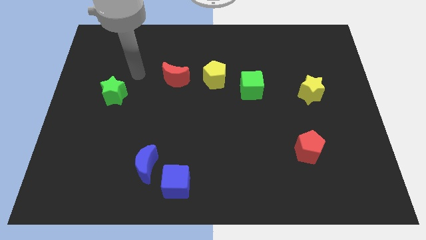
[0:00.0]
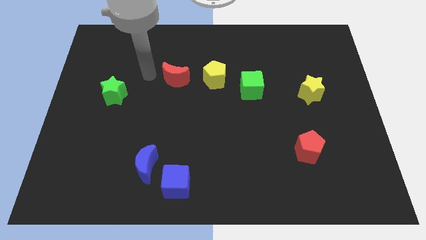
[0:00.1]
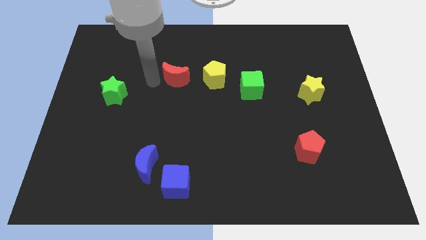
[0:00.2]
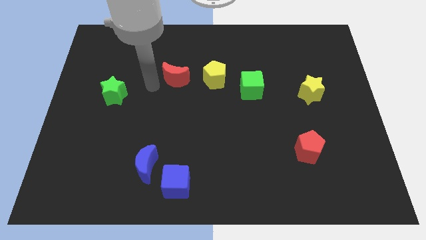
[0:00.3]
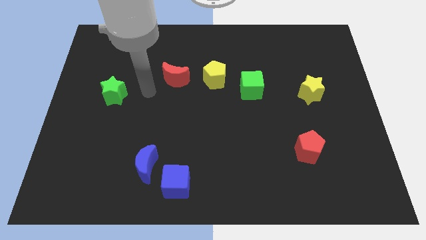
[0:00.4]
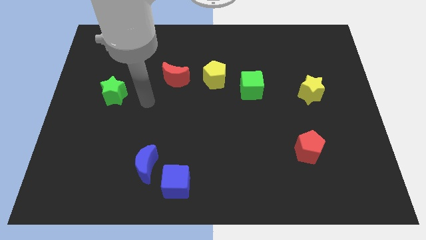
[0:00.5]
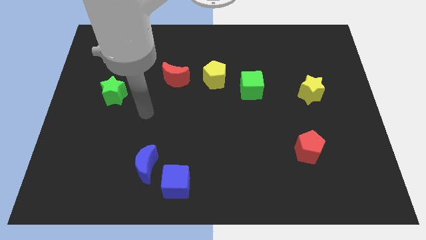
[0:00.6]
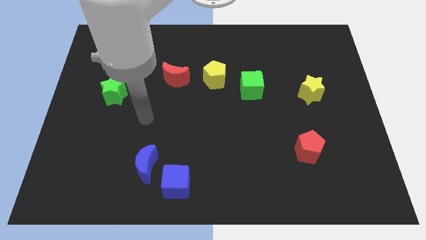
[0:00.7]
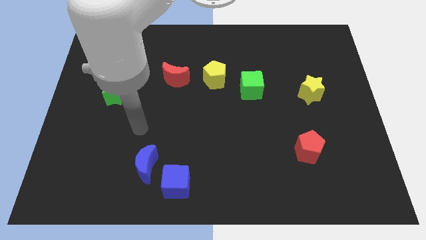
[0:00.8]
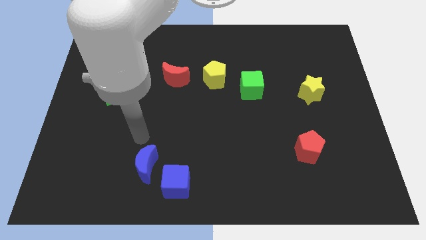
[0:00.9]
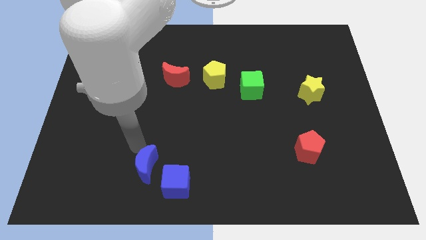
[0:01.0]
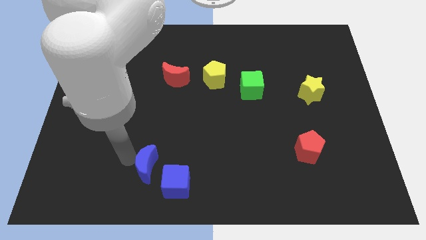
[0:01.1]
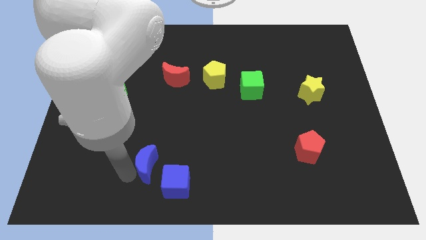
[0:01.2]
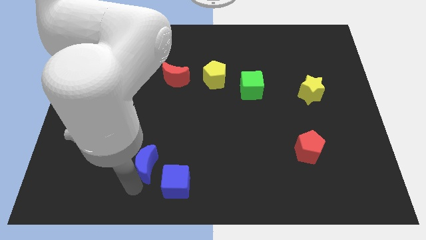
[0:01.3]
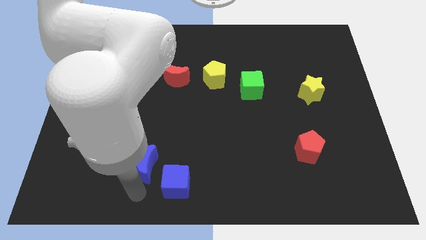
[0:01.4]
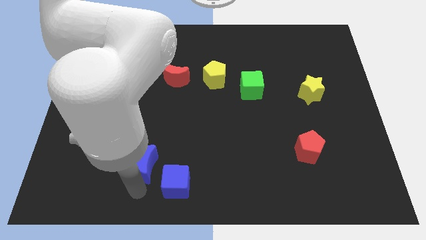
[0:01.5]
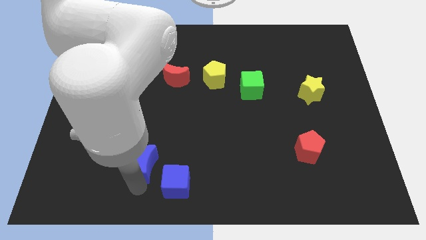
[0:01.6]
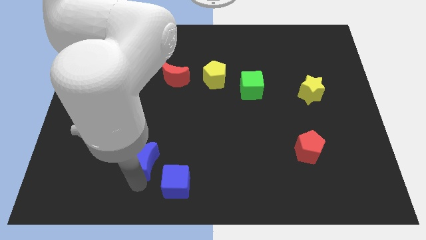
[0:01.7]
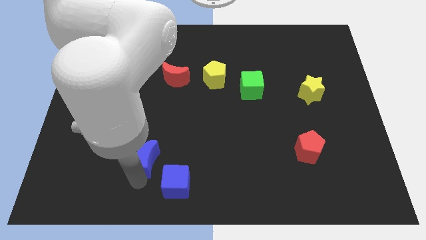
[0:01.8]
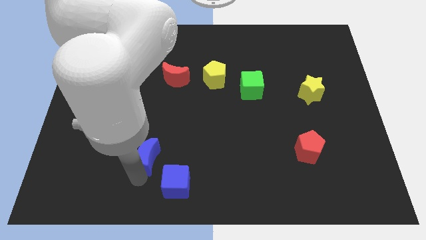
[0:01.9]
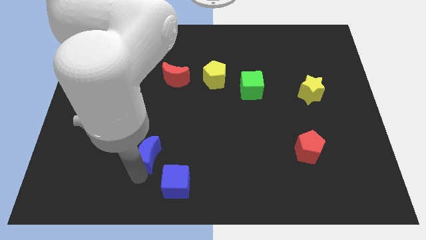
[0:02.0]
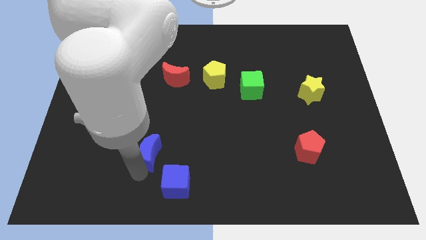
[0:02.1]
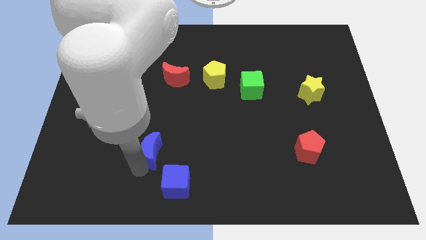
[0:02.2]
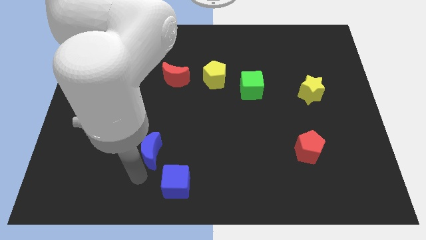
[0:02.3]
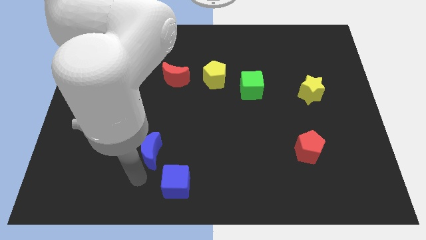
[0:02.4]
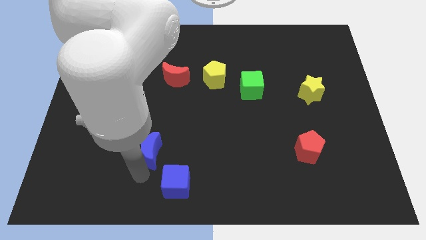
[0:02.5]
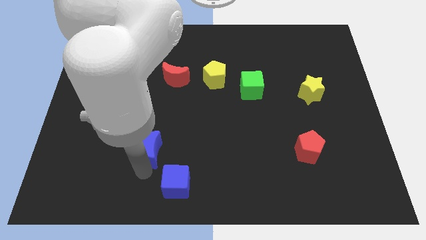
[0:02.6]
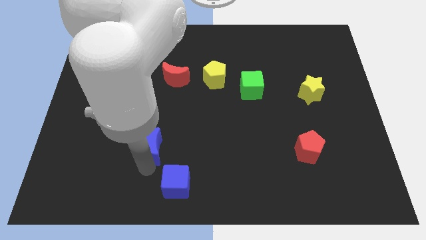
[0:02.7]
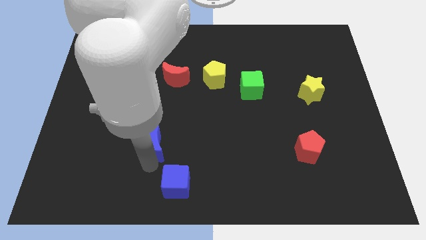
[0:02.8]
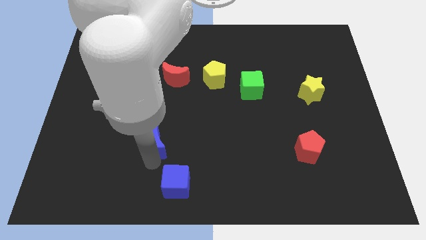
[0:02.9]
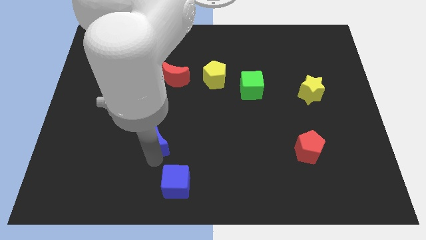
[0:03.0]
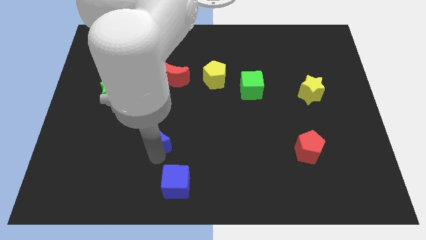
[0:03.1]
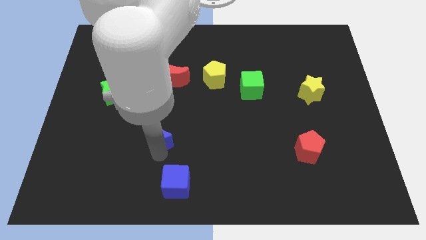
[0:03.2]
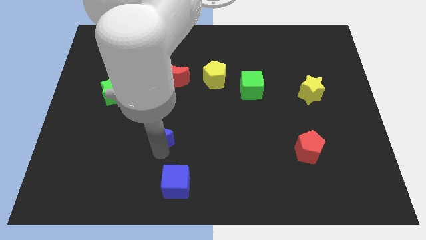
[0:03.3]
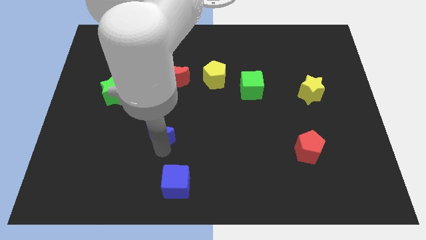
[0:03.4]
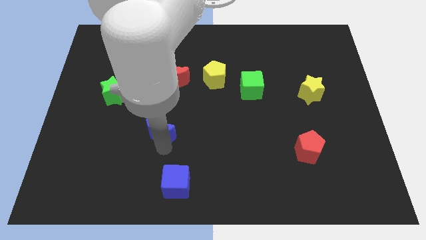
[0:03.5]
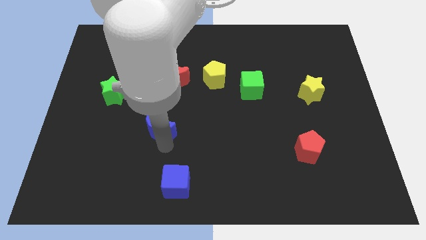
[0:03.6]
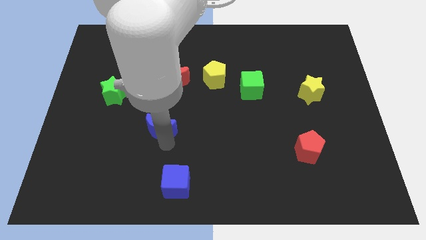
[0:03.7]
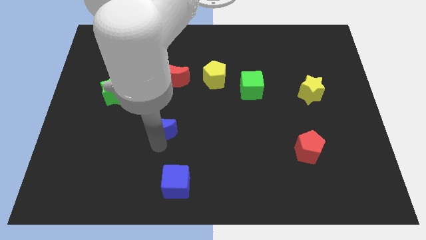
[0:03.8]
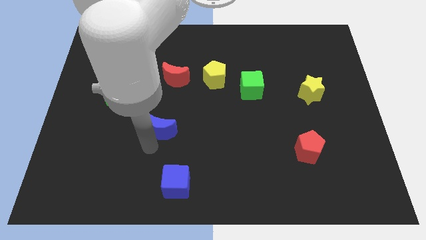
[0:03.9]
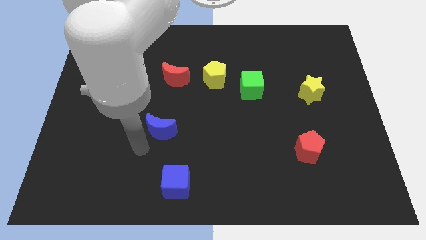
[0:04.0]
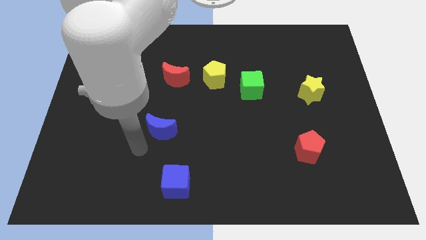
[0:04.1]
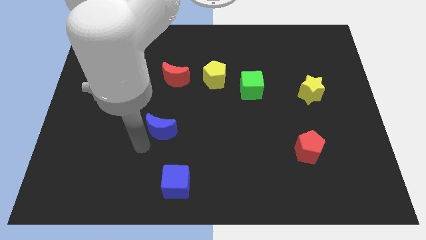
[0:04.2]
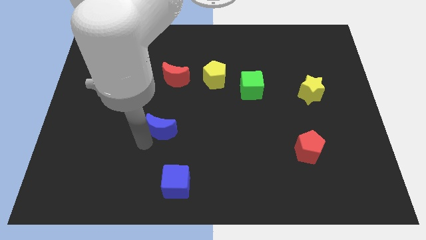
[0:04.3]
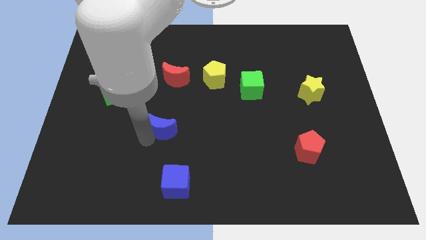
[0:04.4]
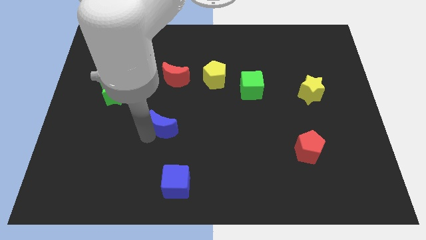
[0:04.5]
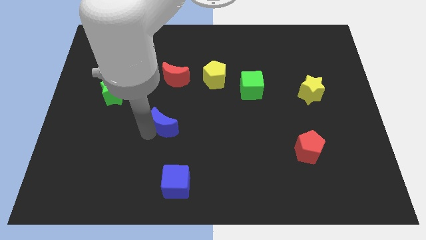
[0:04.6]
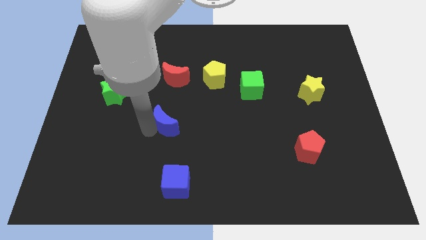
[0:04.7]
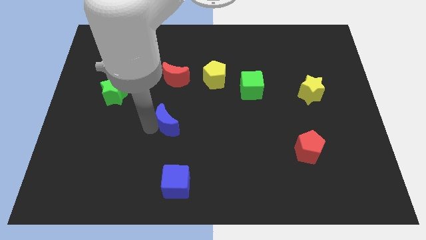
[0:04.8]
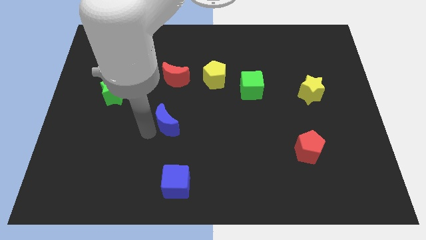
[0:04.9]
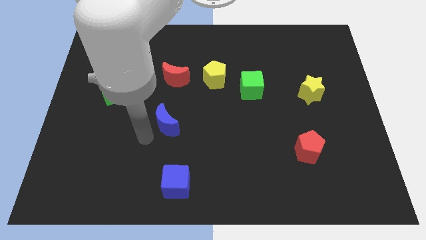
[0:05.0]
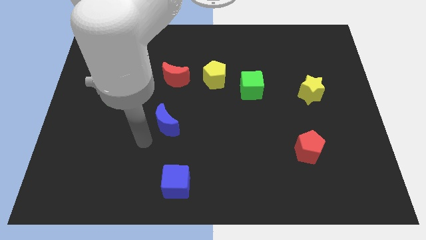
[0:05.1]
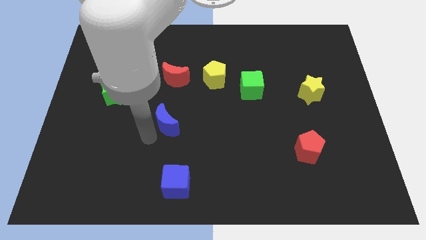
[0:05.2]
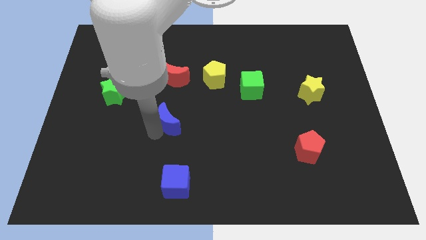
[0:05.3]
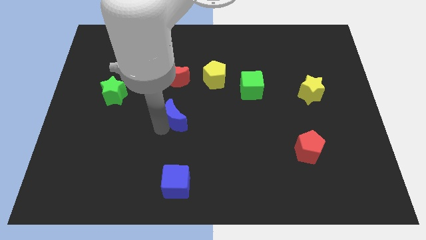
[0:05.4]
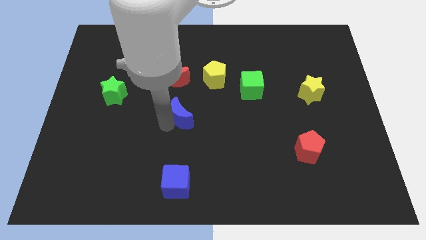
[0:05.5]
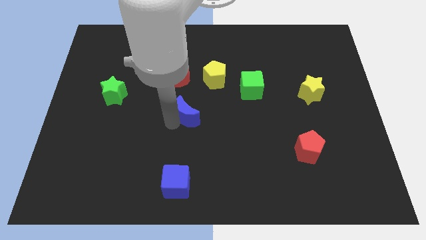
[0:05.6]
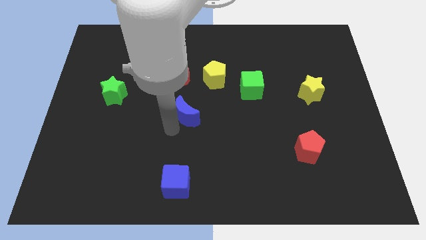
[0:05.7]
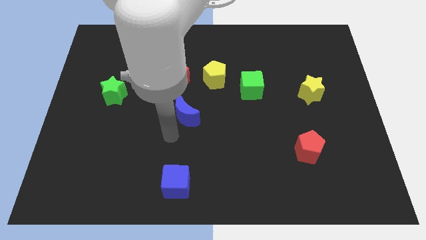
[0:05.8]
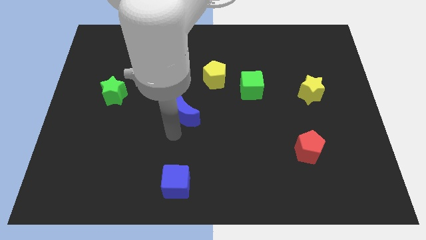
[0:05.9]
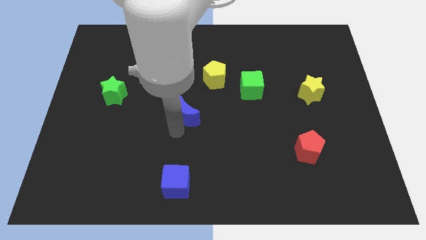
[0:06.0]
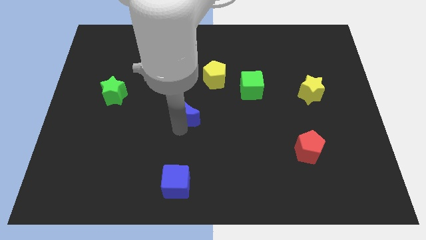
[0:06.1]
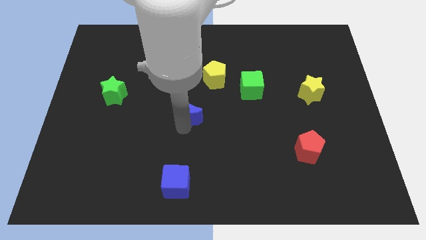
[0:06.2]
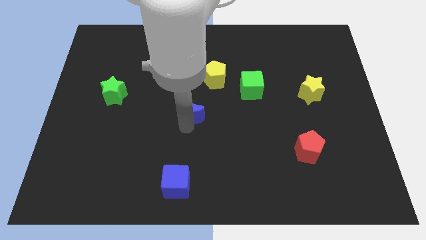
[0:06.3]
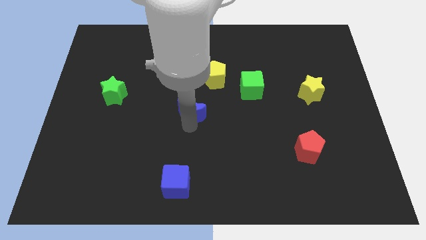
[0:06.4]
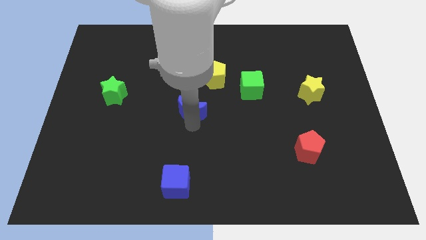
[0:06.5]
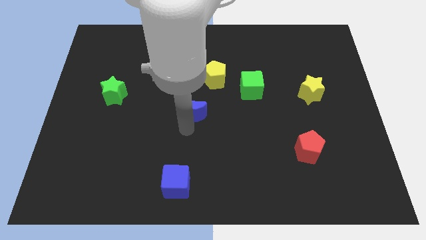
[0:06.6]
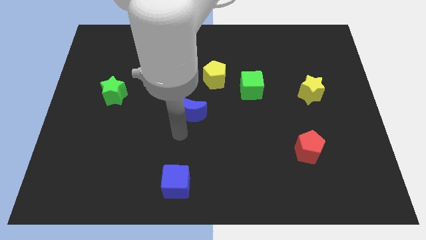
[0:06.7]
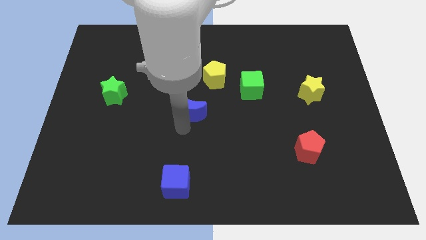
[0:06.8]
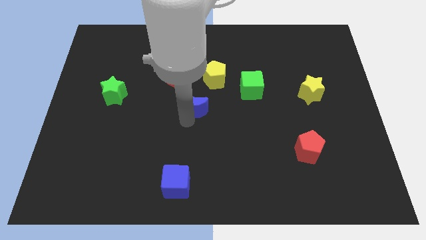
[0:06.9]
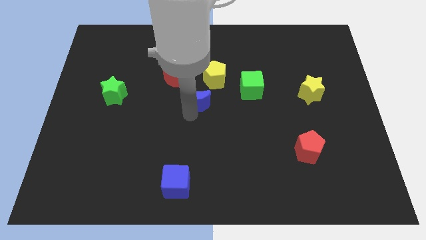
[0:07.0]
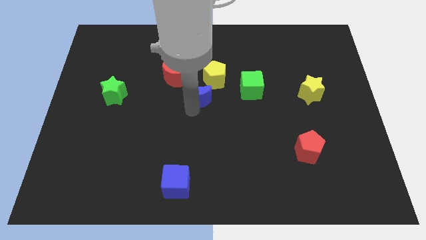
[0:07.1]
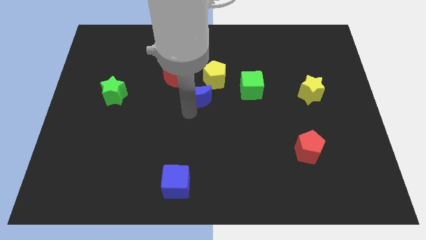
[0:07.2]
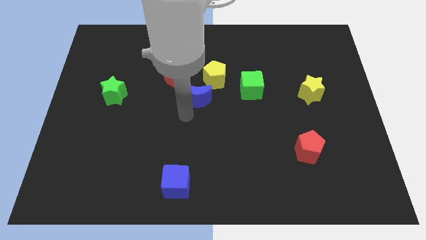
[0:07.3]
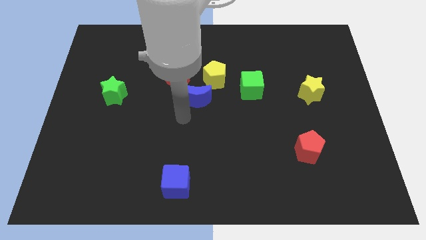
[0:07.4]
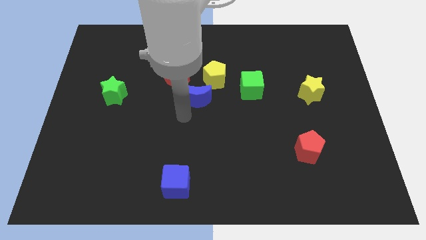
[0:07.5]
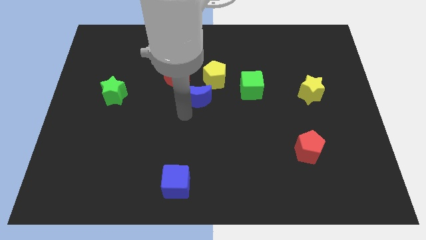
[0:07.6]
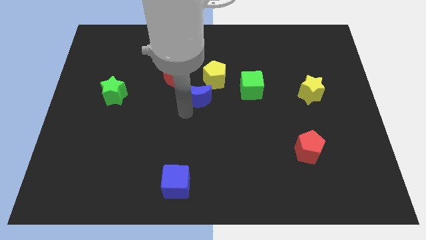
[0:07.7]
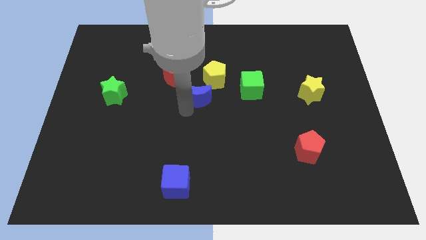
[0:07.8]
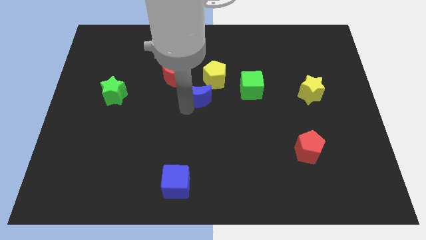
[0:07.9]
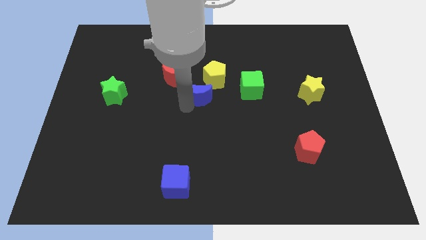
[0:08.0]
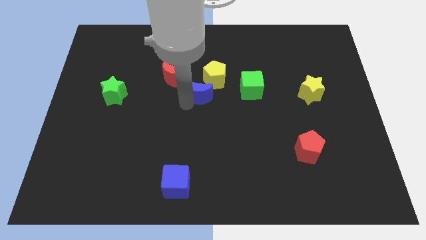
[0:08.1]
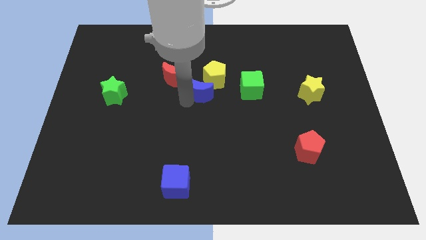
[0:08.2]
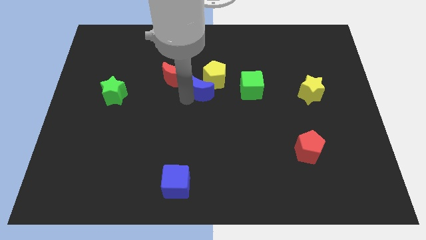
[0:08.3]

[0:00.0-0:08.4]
push the blue moon close to the yellow pentagon
